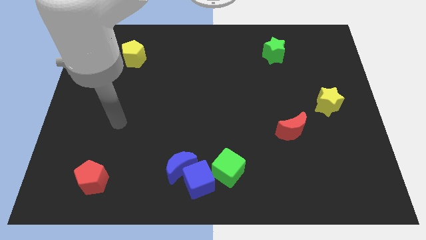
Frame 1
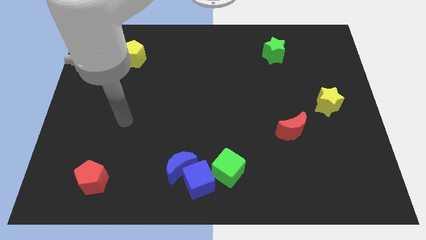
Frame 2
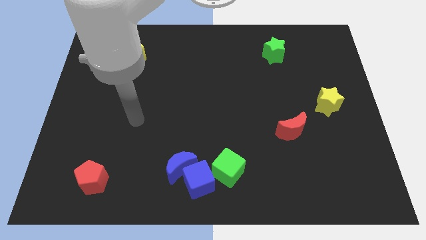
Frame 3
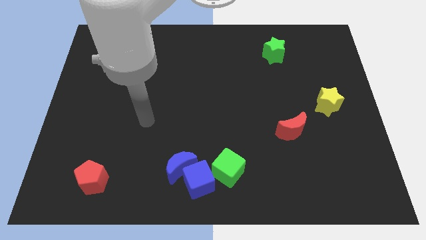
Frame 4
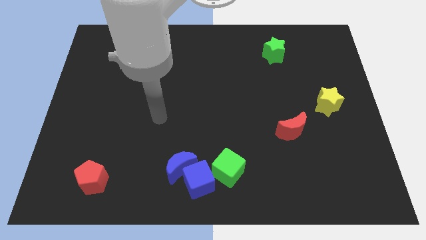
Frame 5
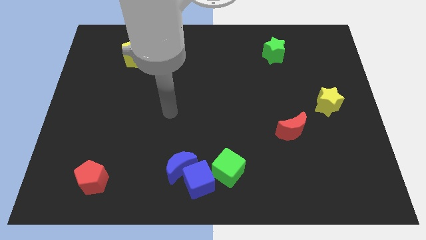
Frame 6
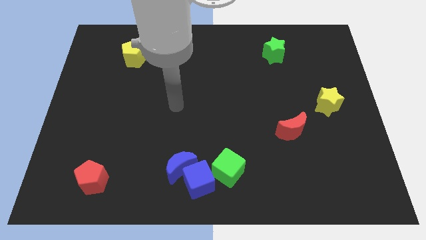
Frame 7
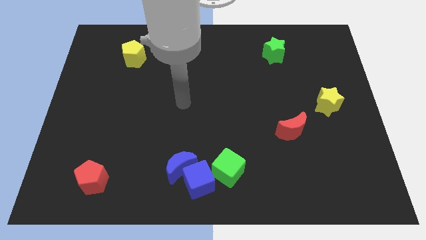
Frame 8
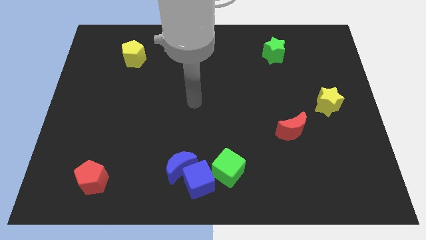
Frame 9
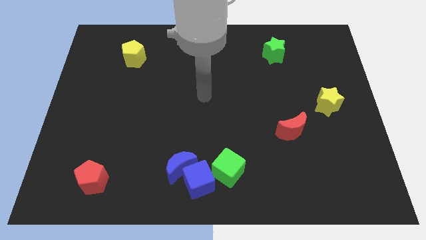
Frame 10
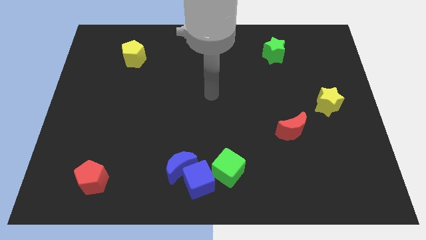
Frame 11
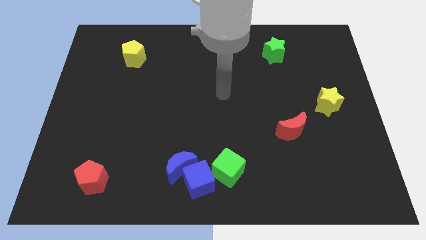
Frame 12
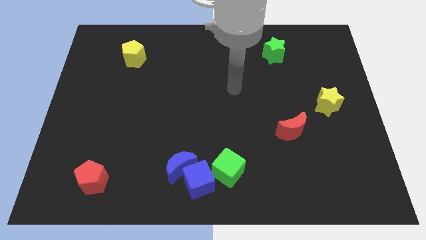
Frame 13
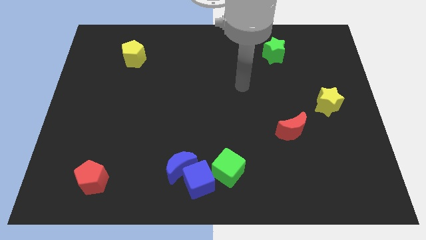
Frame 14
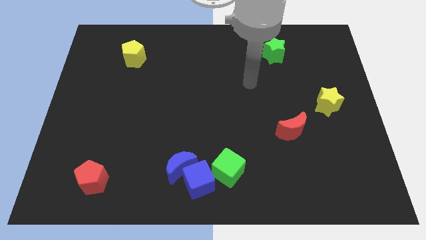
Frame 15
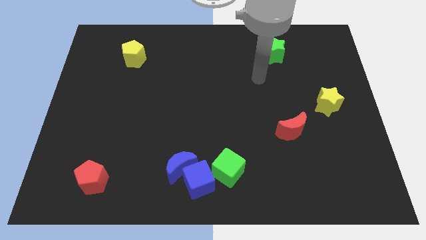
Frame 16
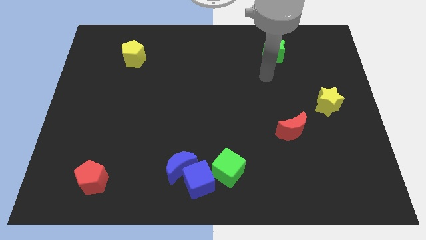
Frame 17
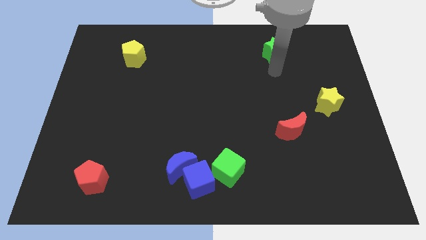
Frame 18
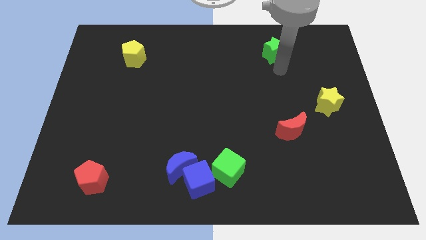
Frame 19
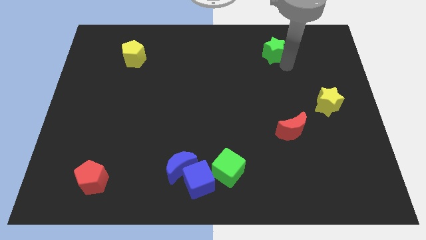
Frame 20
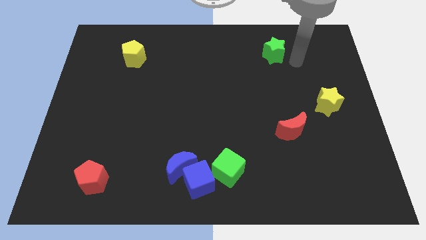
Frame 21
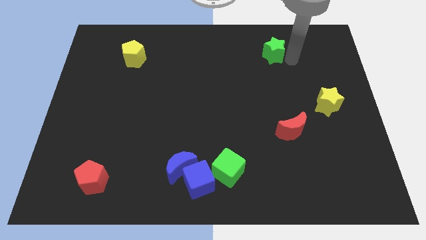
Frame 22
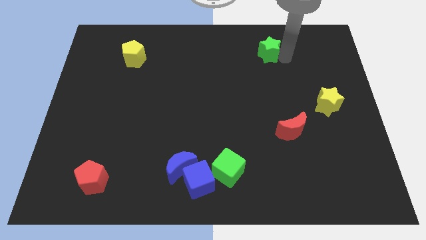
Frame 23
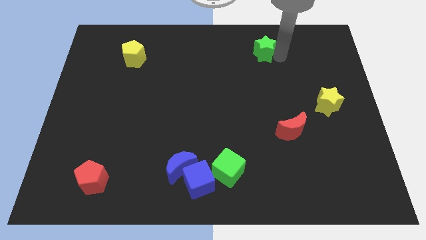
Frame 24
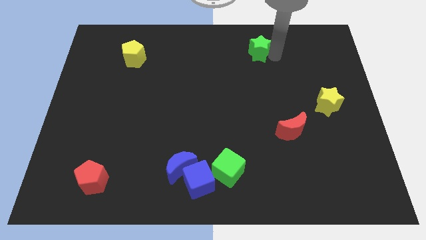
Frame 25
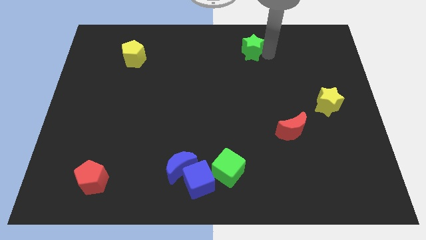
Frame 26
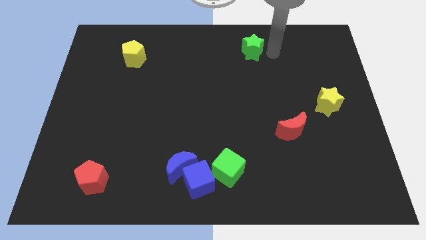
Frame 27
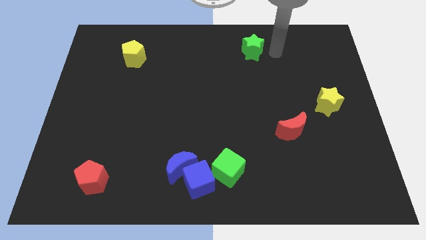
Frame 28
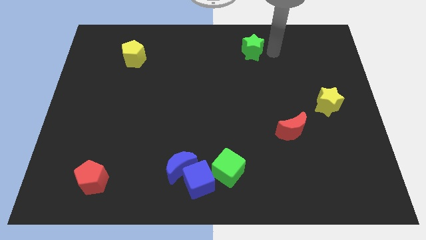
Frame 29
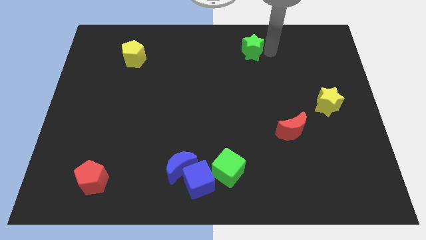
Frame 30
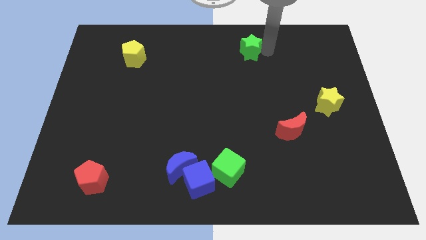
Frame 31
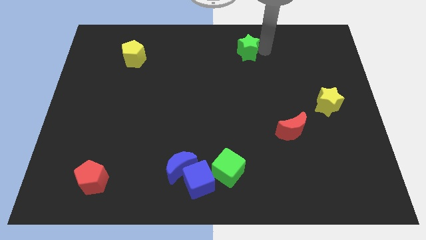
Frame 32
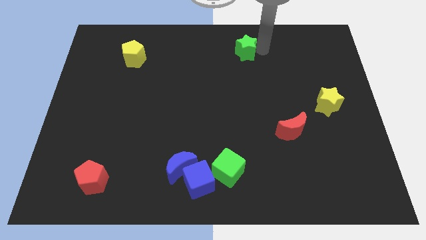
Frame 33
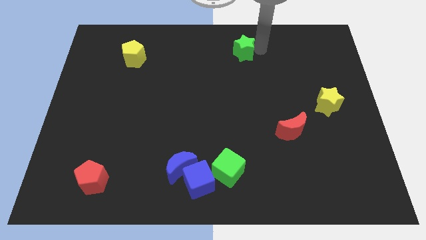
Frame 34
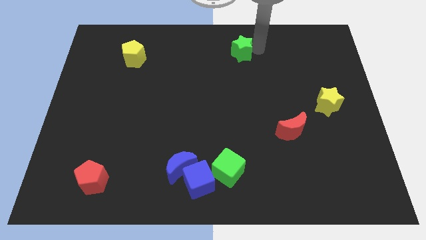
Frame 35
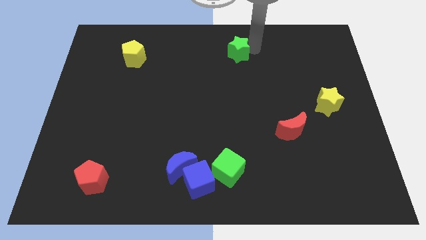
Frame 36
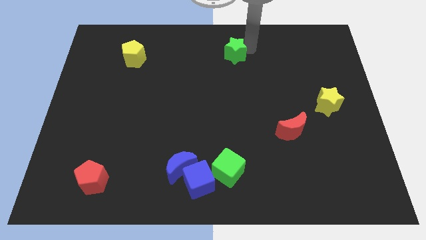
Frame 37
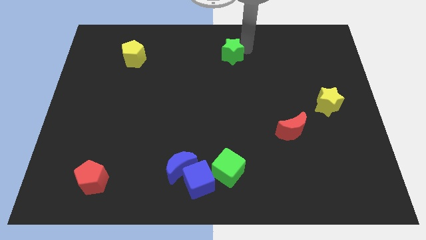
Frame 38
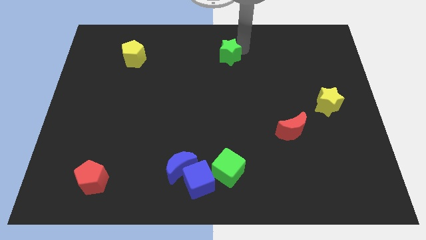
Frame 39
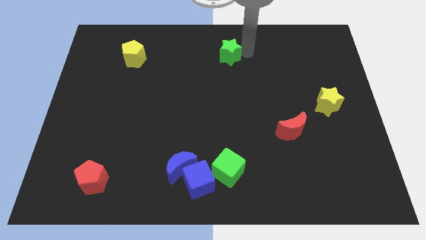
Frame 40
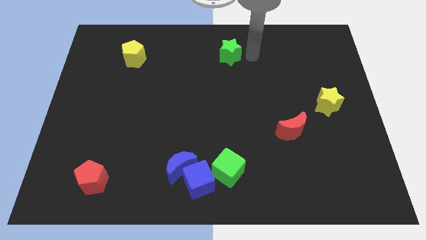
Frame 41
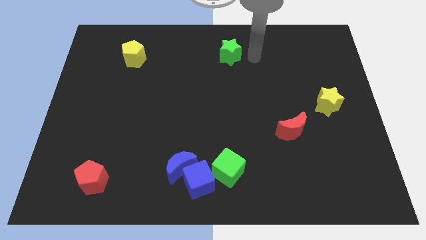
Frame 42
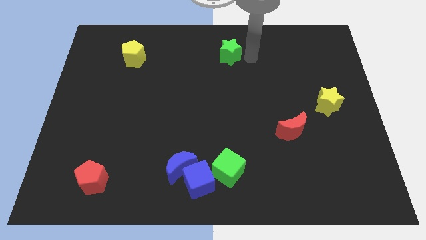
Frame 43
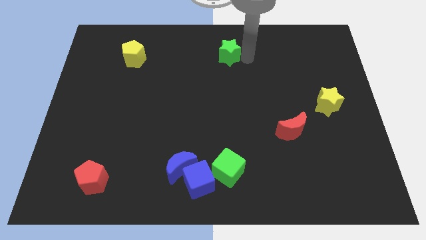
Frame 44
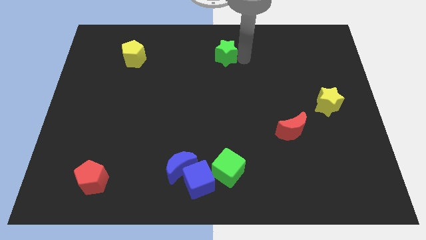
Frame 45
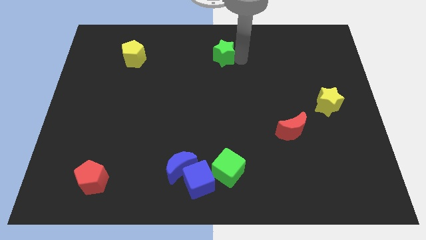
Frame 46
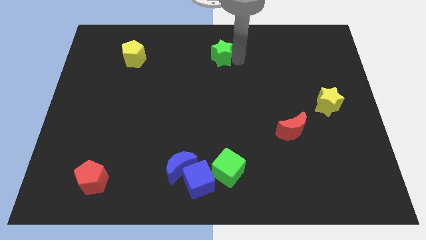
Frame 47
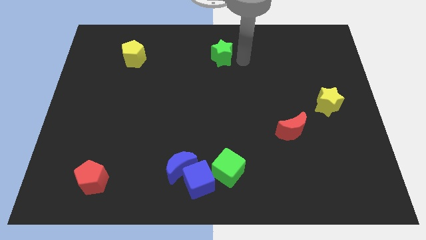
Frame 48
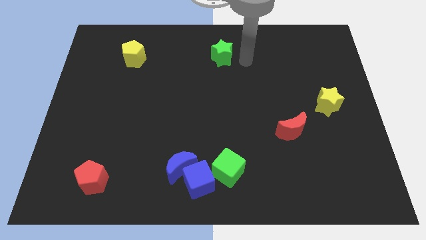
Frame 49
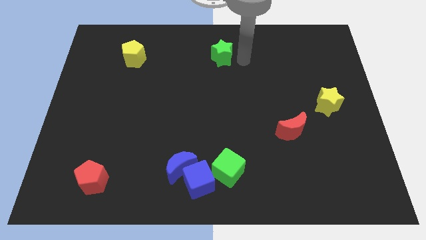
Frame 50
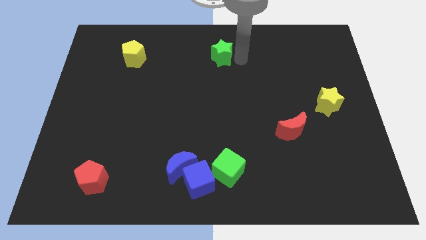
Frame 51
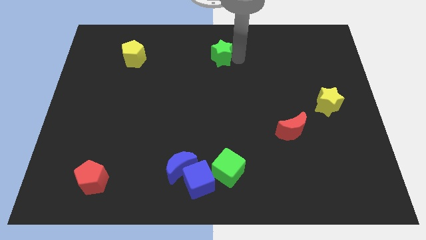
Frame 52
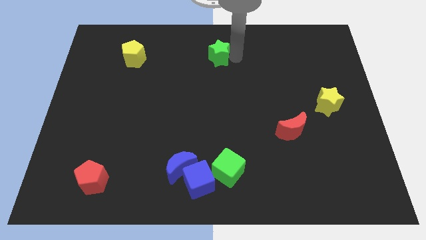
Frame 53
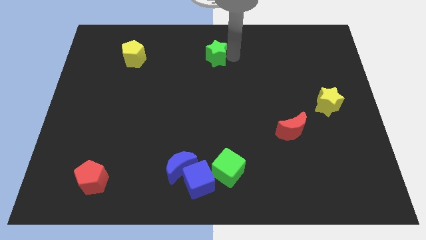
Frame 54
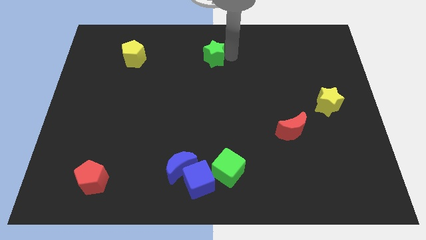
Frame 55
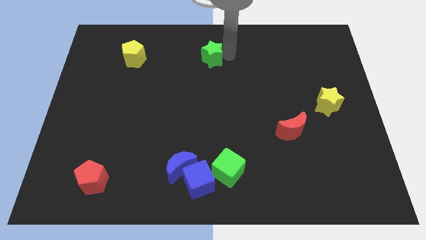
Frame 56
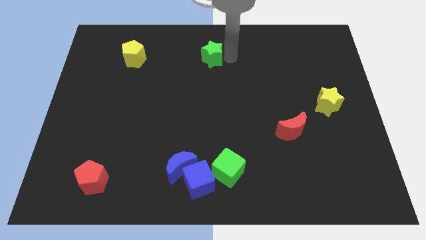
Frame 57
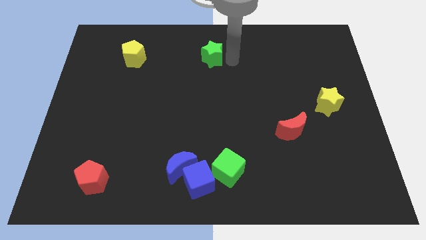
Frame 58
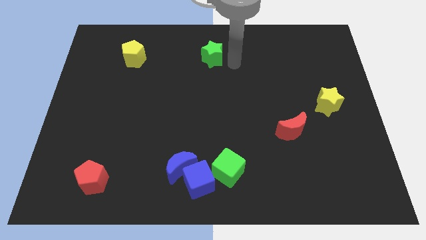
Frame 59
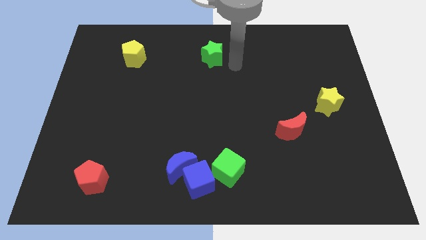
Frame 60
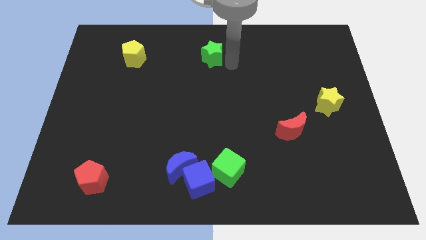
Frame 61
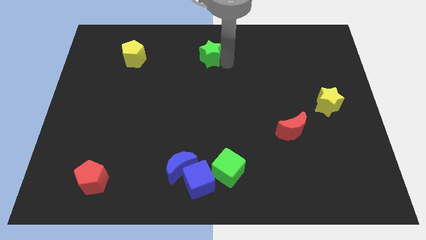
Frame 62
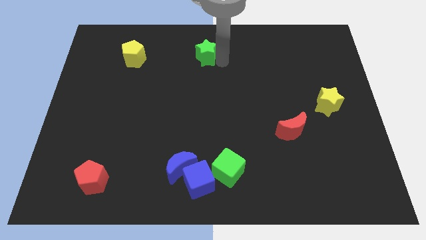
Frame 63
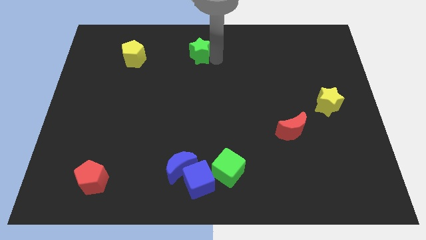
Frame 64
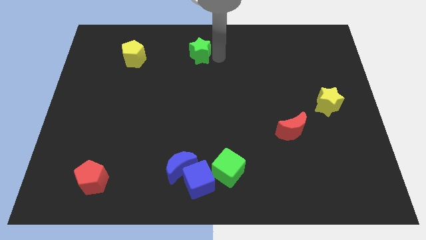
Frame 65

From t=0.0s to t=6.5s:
move the green star to the left

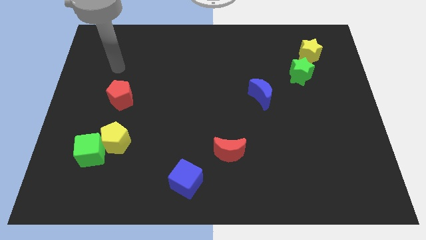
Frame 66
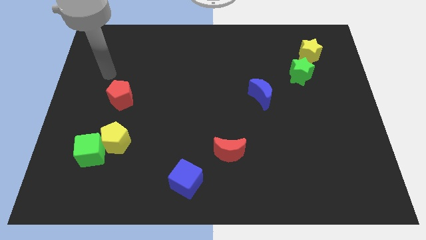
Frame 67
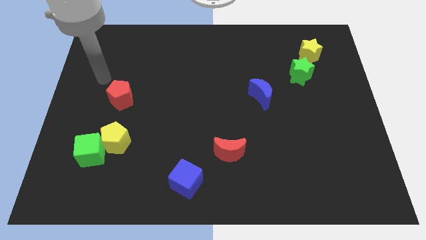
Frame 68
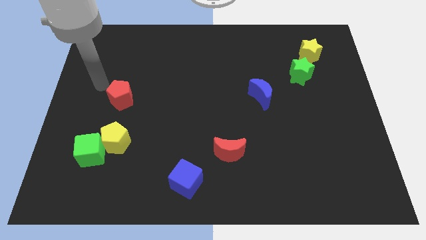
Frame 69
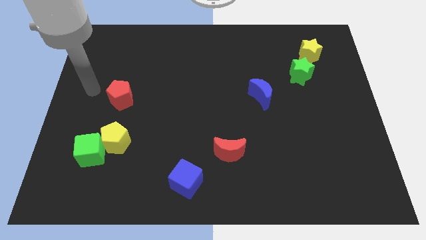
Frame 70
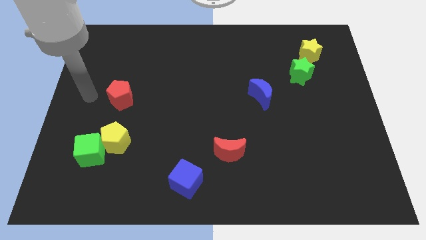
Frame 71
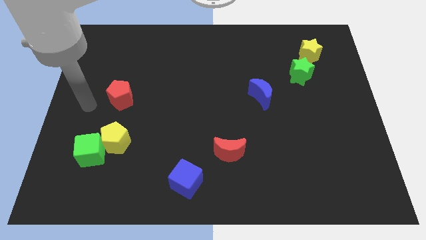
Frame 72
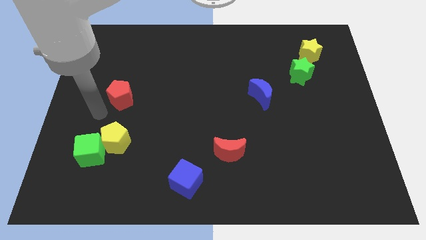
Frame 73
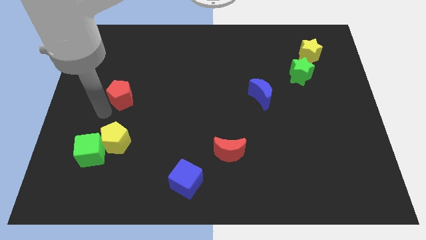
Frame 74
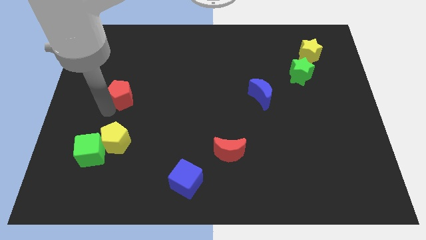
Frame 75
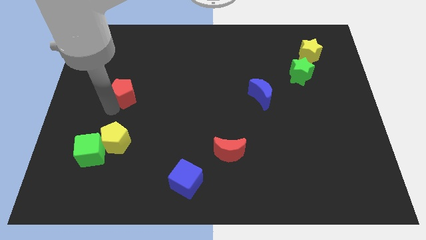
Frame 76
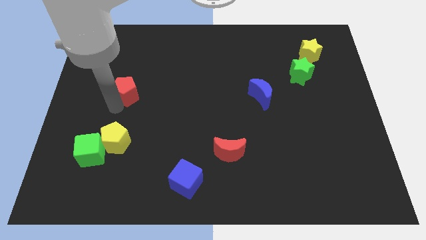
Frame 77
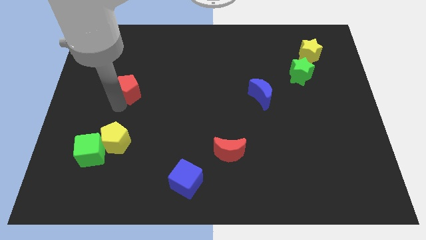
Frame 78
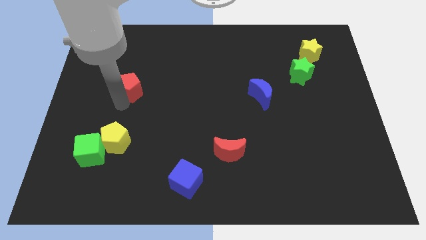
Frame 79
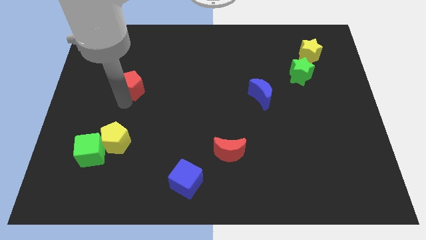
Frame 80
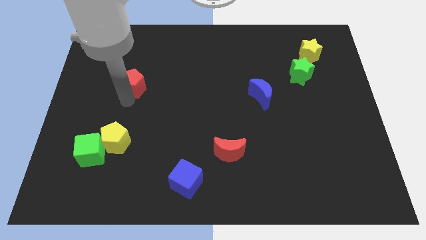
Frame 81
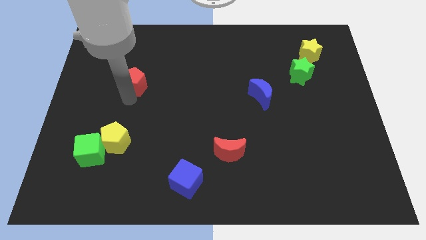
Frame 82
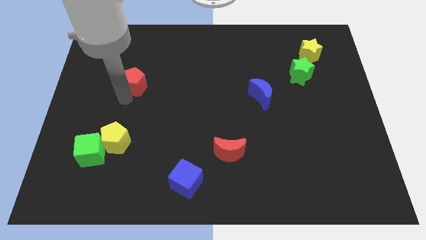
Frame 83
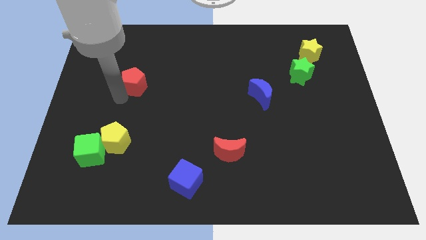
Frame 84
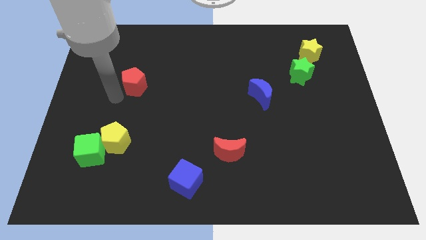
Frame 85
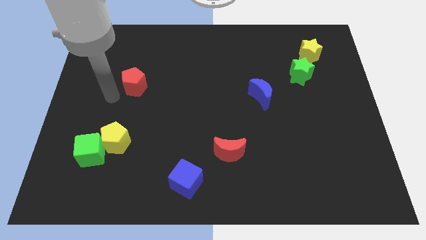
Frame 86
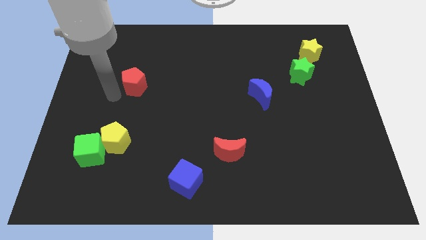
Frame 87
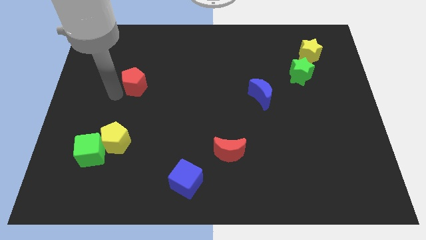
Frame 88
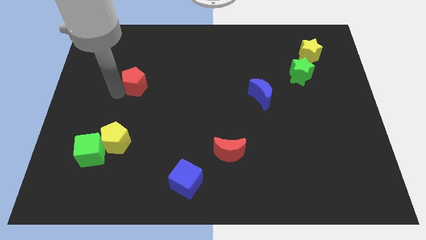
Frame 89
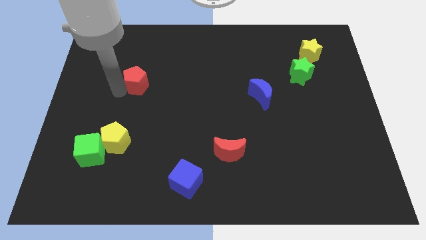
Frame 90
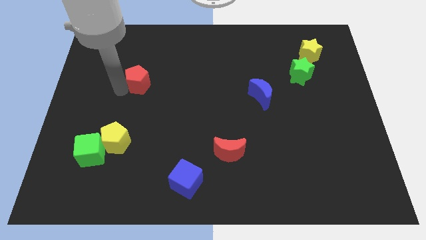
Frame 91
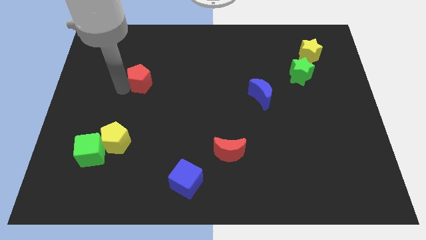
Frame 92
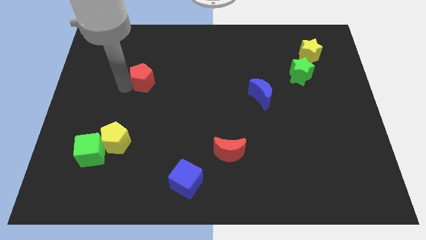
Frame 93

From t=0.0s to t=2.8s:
move the red pentagon somewhat upwards and then to the right
